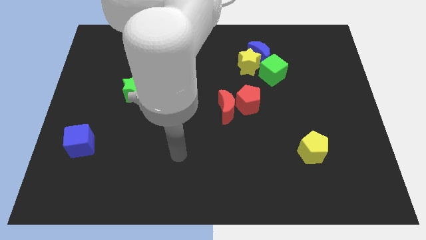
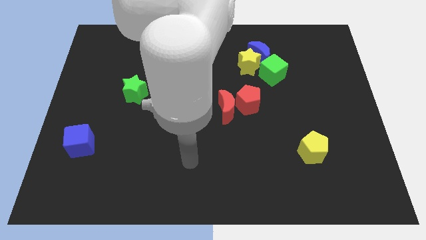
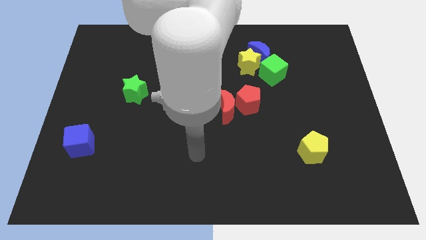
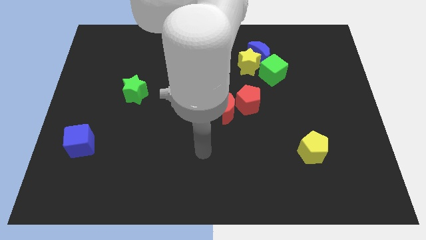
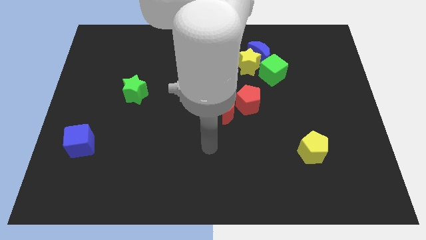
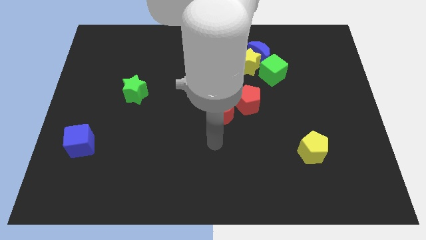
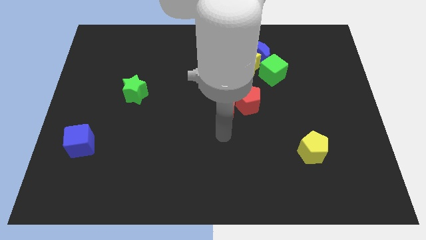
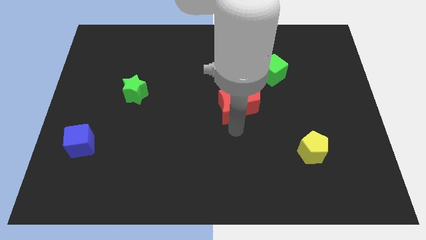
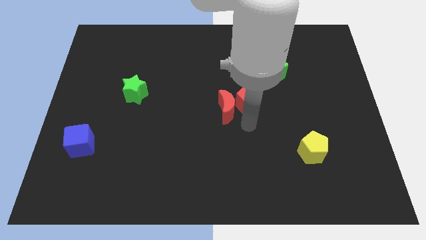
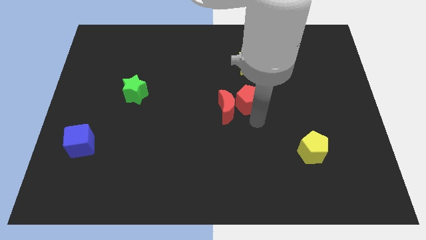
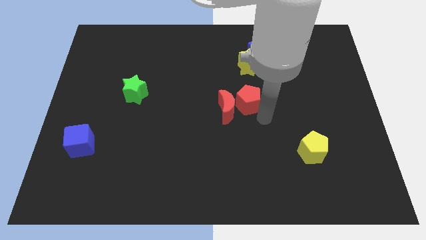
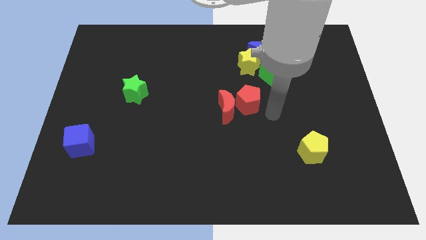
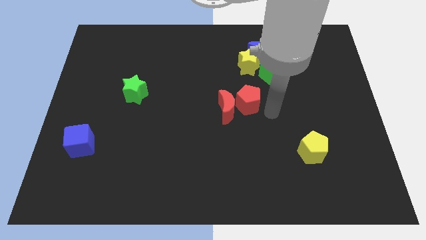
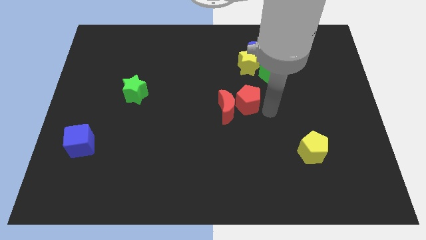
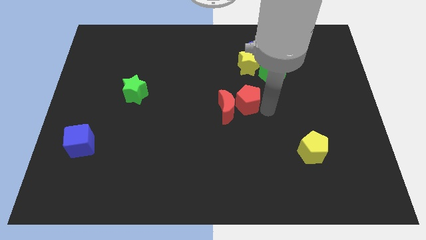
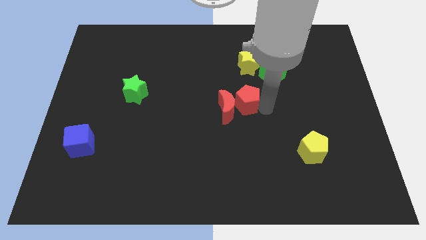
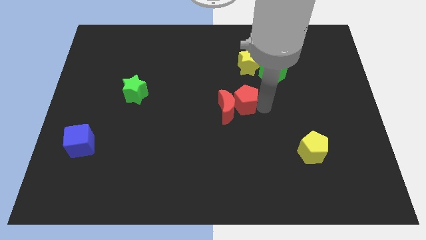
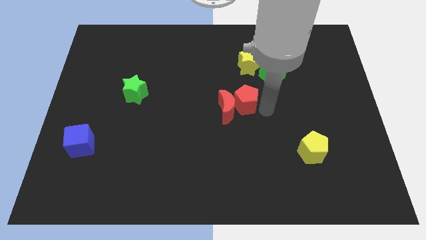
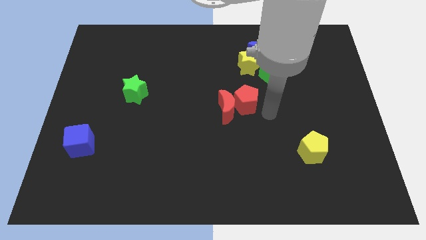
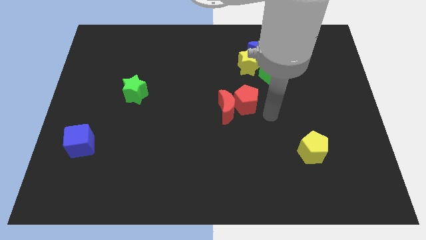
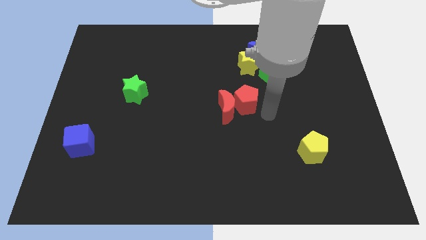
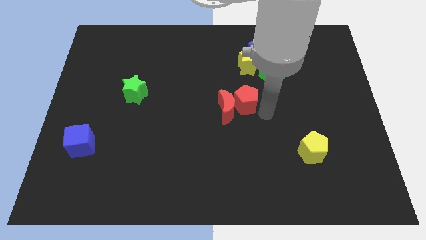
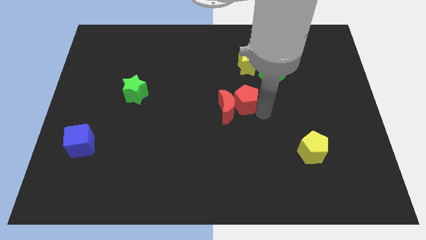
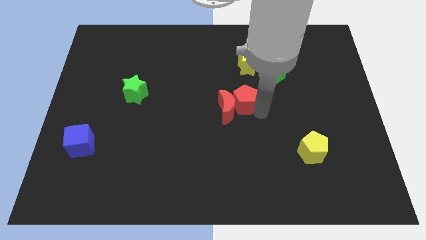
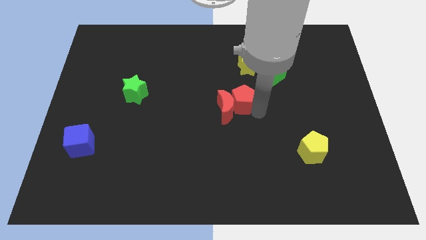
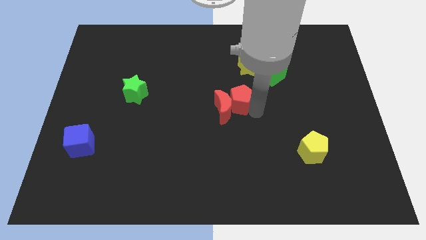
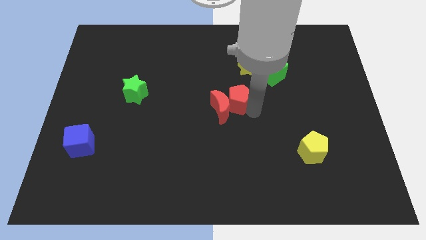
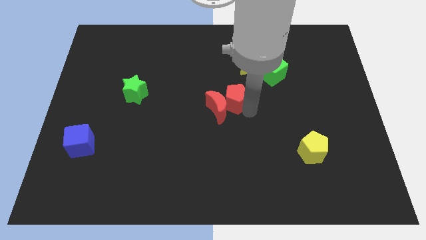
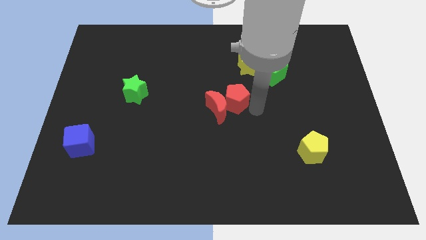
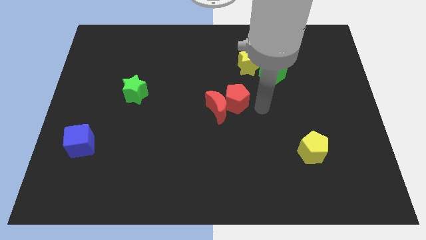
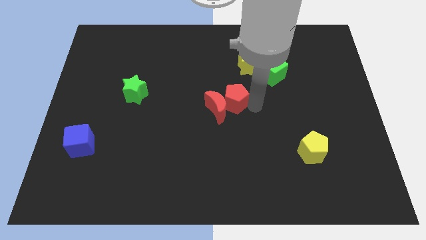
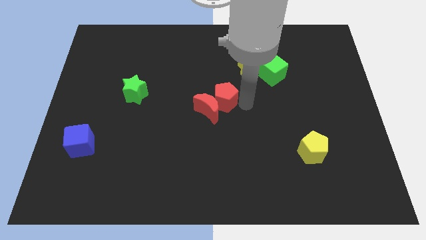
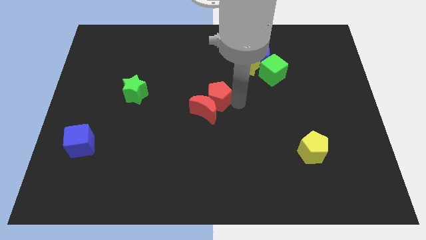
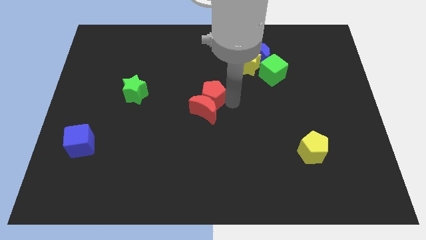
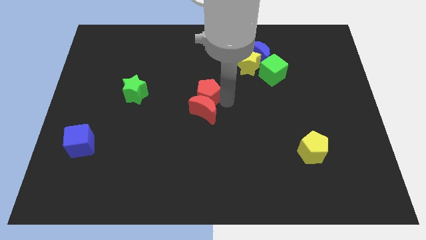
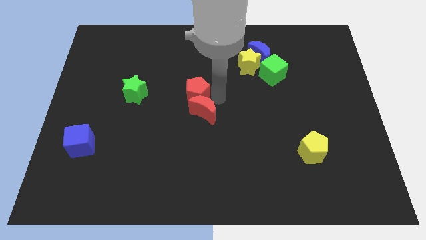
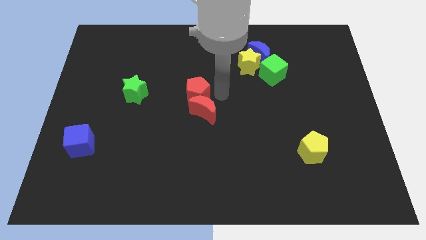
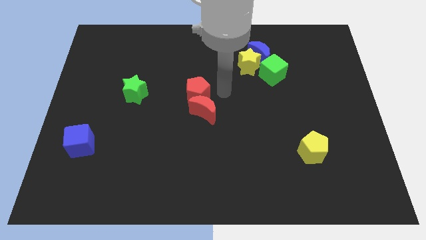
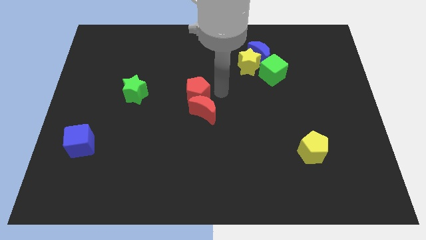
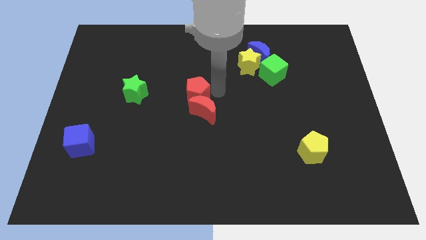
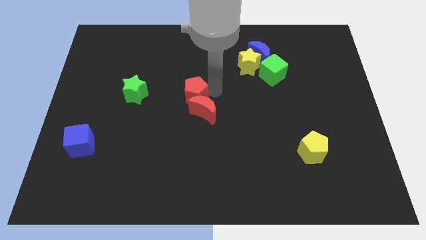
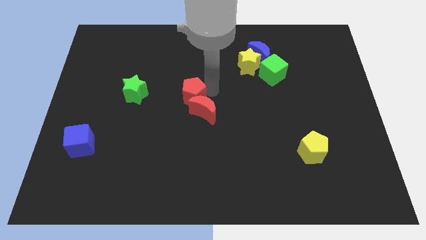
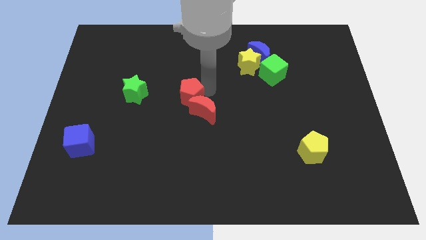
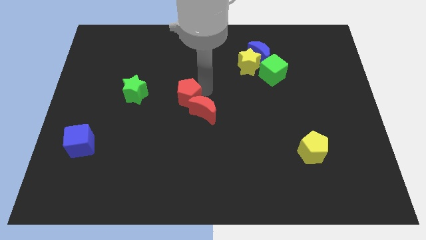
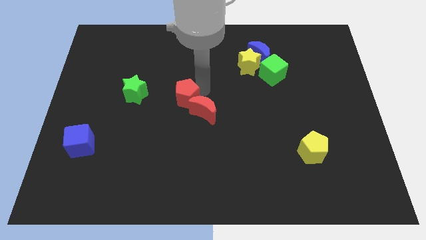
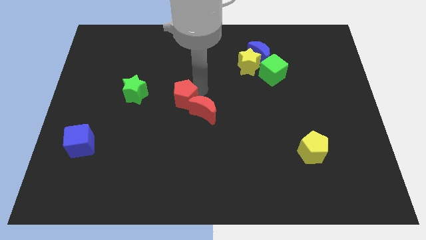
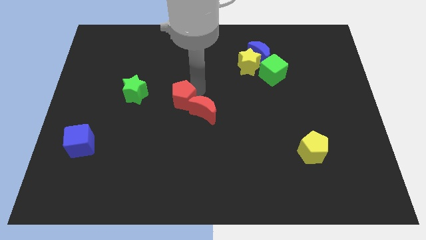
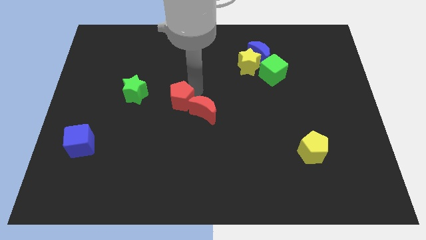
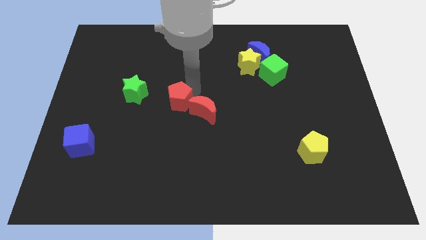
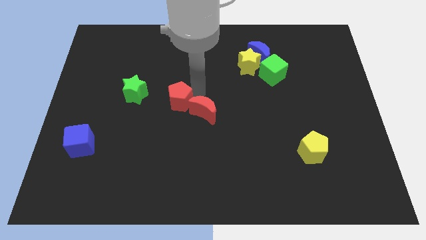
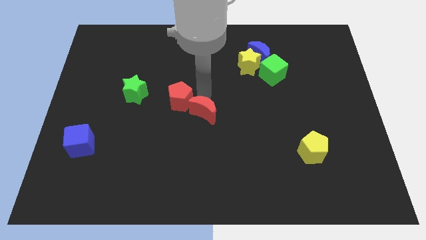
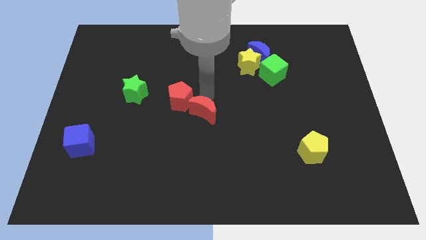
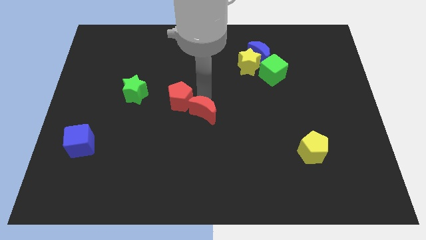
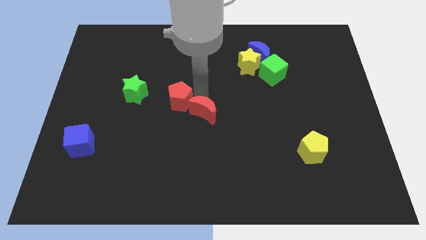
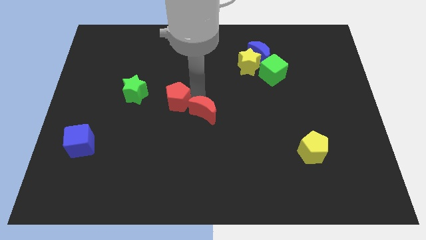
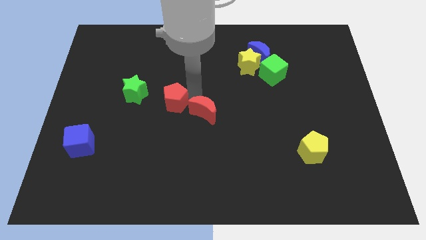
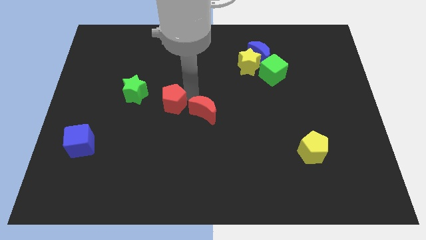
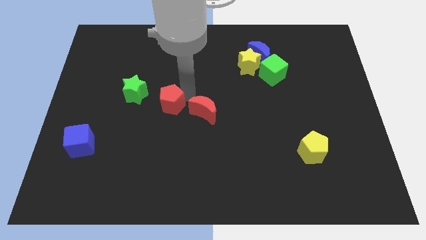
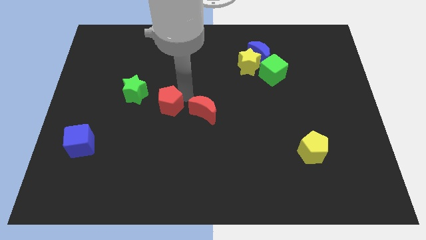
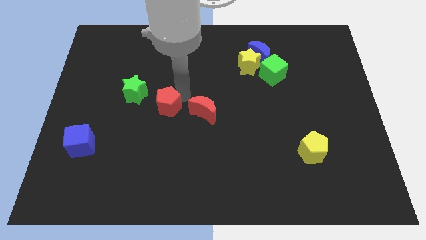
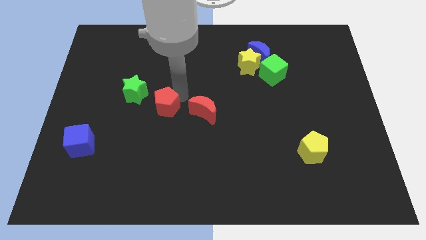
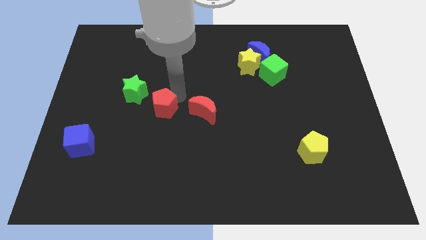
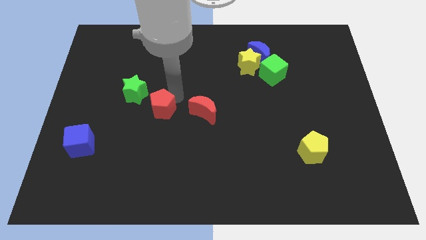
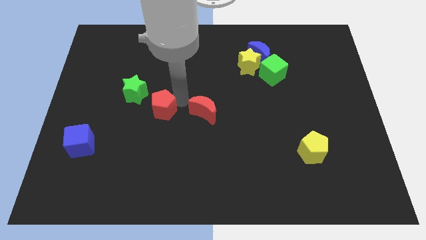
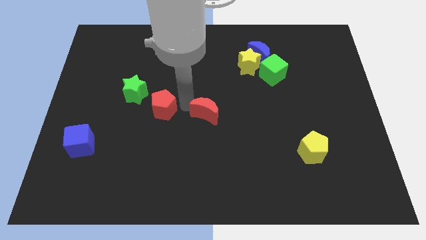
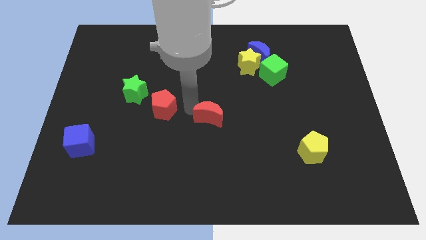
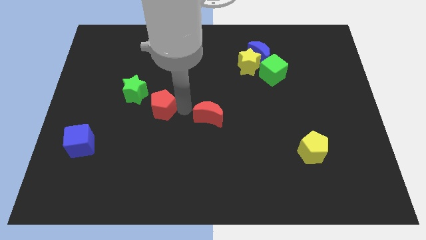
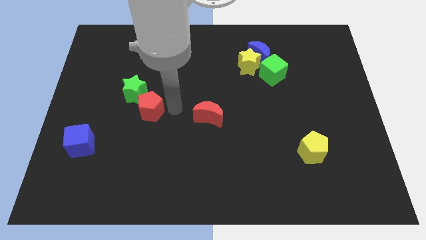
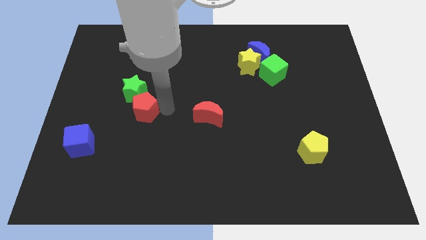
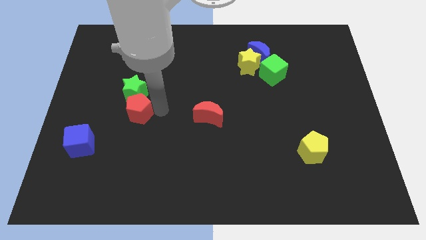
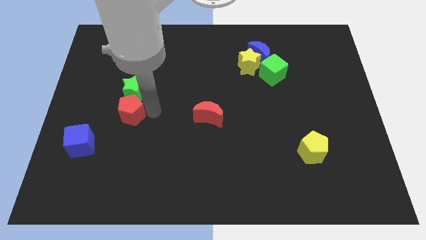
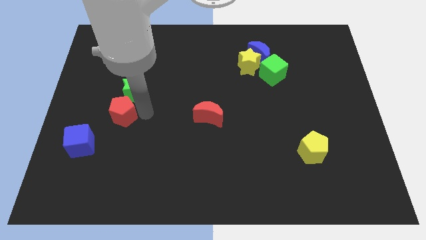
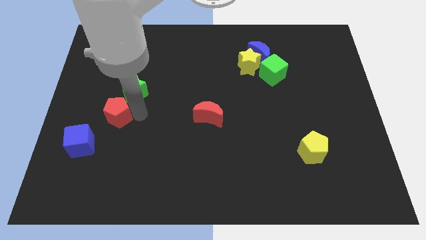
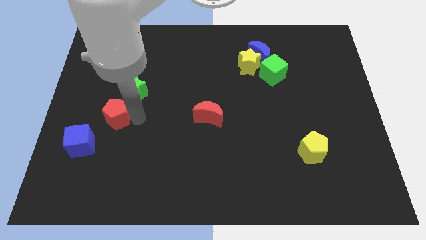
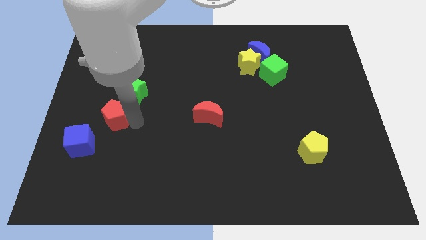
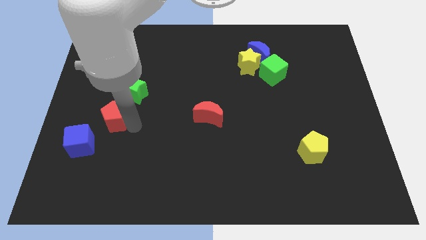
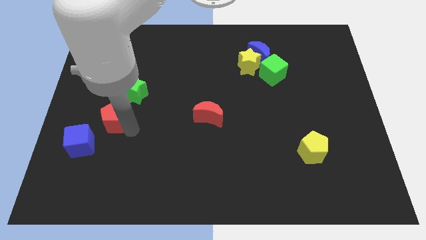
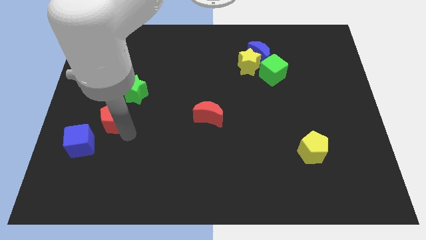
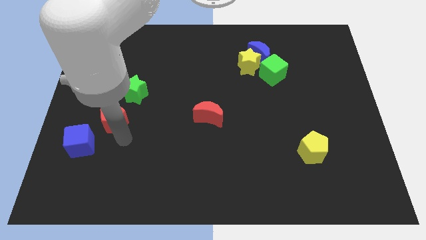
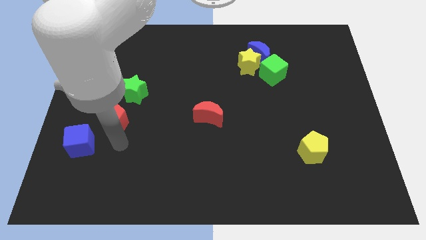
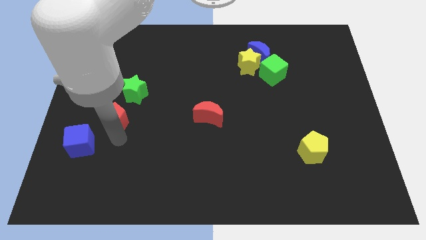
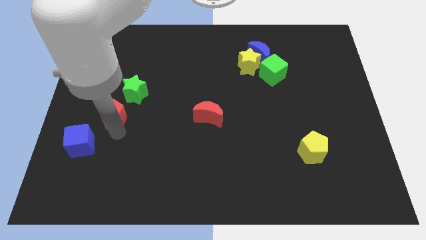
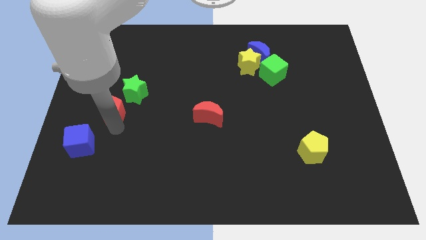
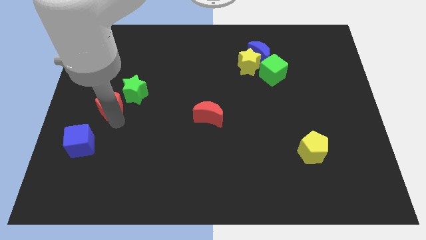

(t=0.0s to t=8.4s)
put the red pentagon above the blue cube
